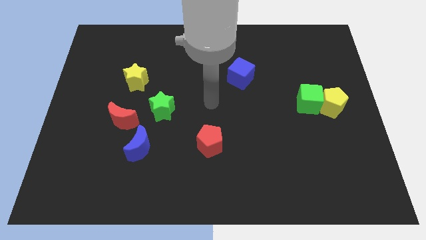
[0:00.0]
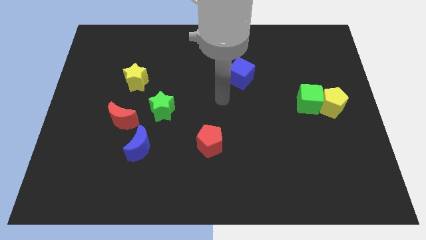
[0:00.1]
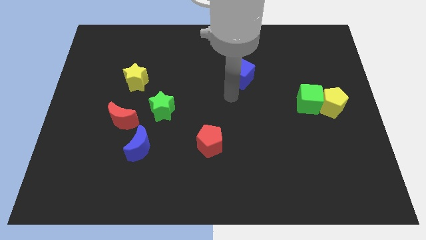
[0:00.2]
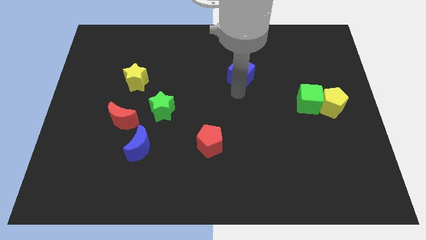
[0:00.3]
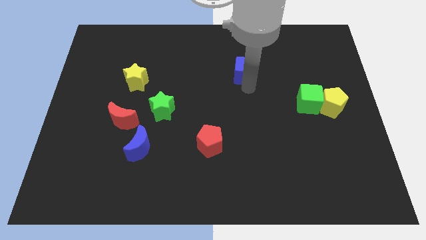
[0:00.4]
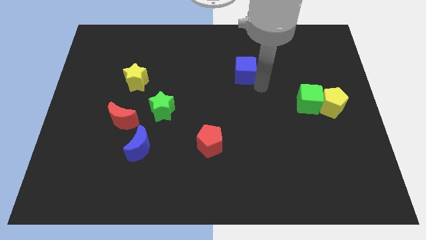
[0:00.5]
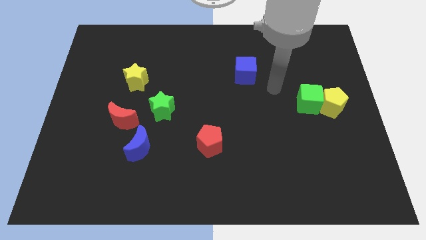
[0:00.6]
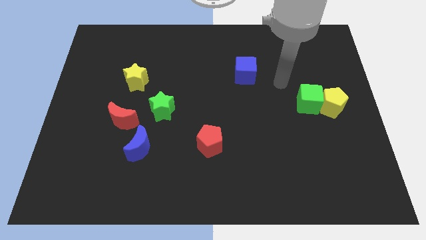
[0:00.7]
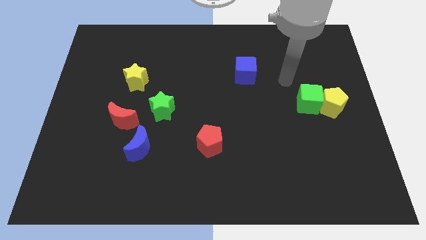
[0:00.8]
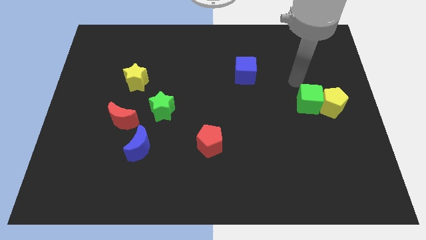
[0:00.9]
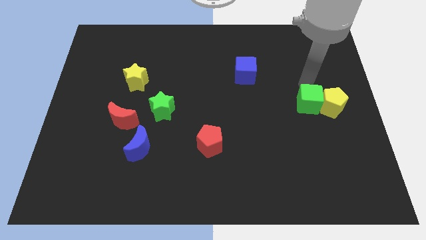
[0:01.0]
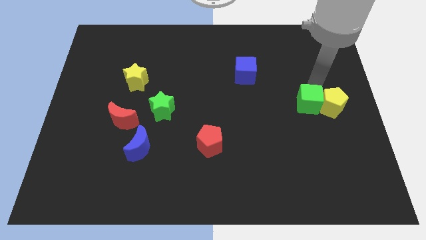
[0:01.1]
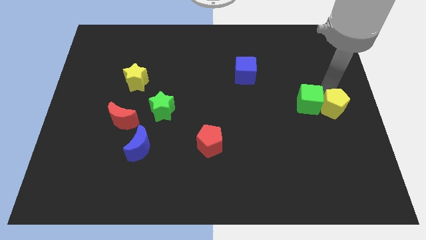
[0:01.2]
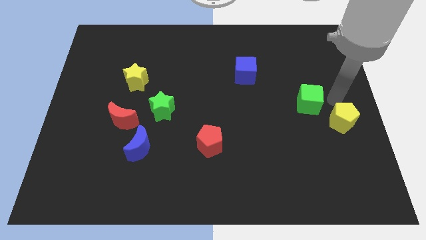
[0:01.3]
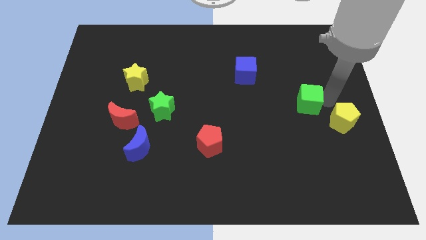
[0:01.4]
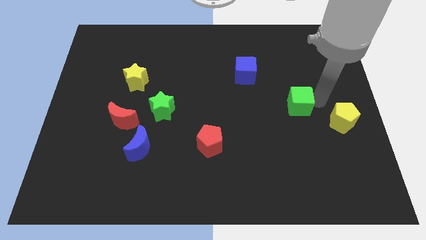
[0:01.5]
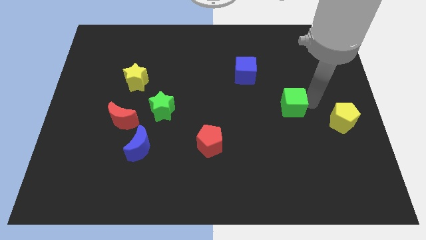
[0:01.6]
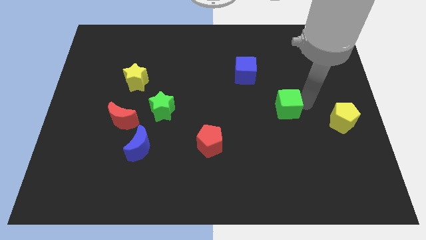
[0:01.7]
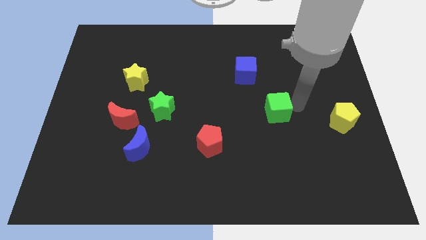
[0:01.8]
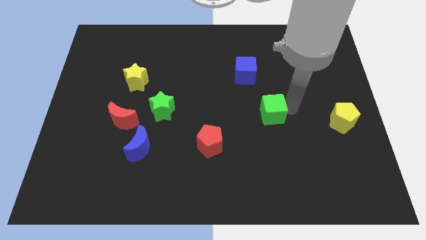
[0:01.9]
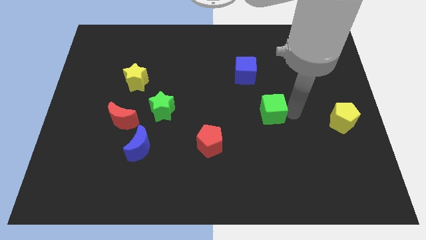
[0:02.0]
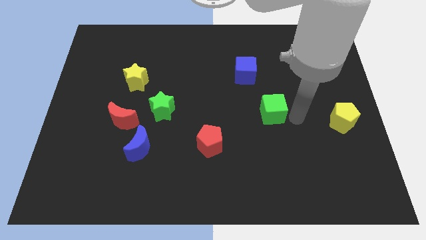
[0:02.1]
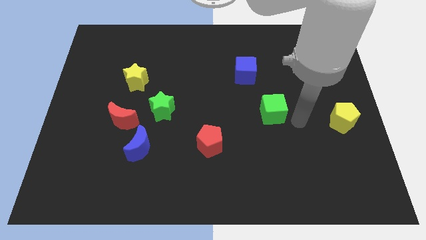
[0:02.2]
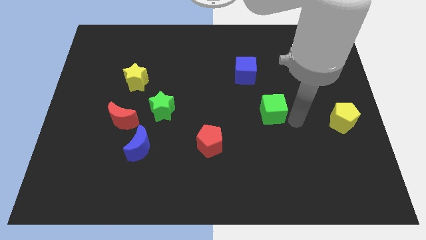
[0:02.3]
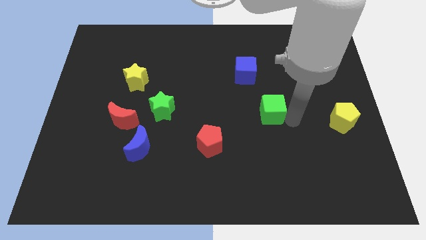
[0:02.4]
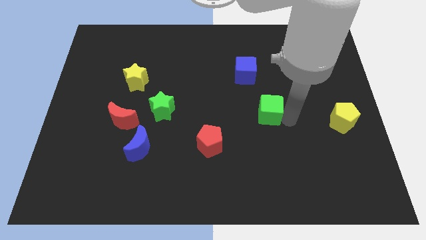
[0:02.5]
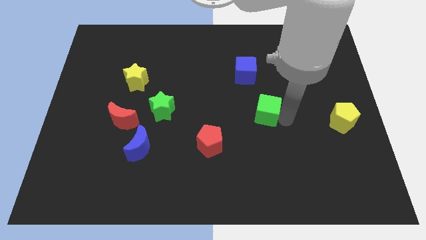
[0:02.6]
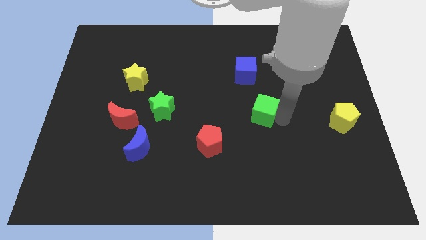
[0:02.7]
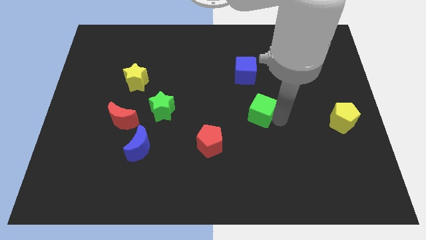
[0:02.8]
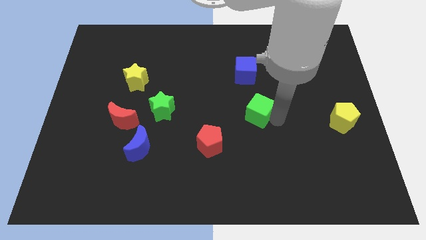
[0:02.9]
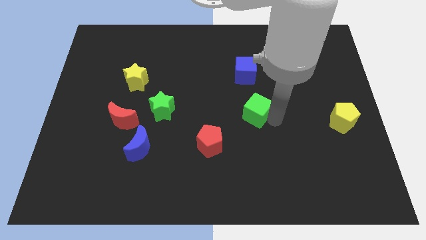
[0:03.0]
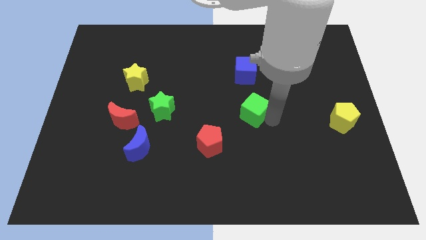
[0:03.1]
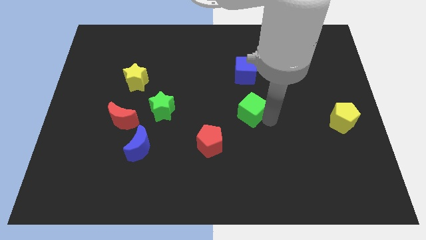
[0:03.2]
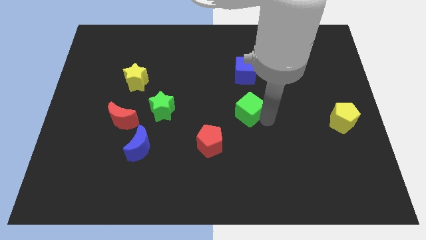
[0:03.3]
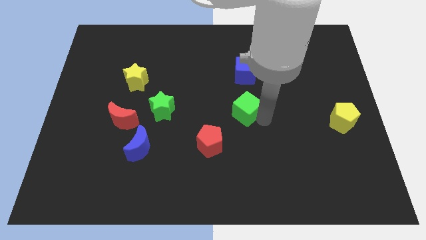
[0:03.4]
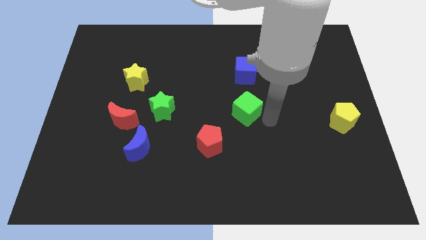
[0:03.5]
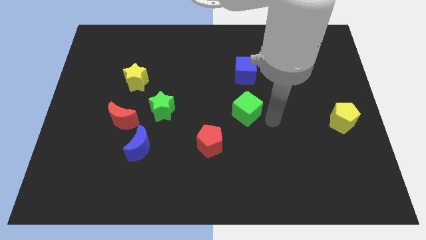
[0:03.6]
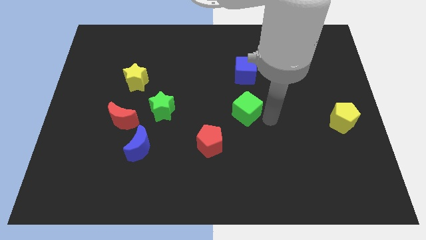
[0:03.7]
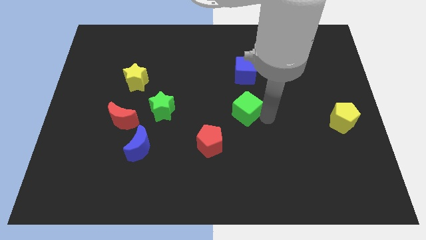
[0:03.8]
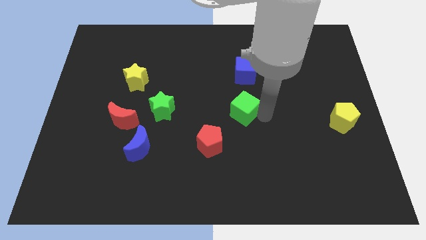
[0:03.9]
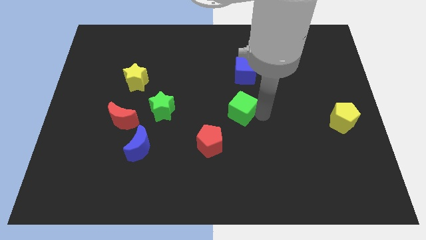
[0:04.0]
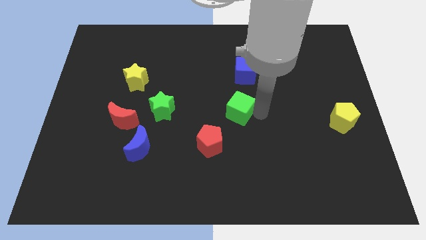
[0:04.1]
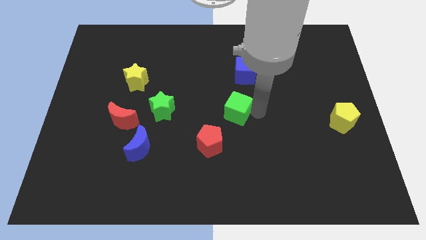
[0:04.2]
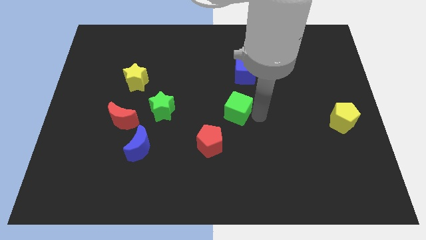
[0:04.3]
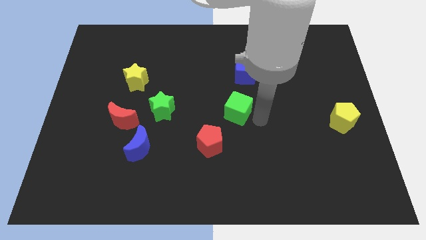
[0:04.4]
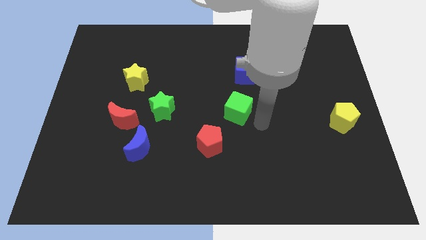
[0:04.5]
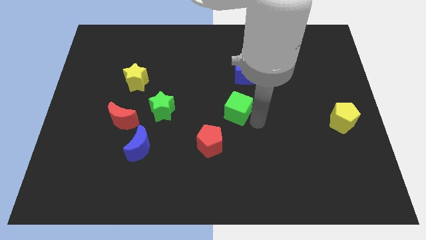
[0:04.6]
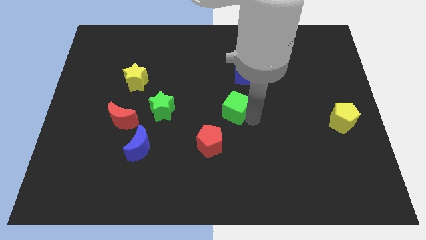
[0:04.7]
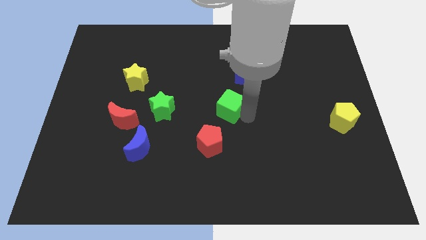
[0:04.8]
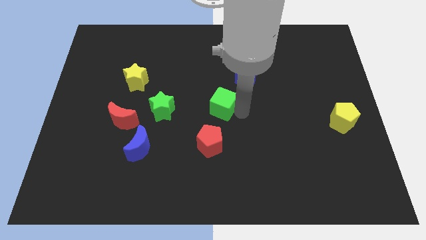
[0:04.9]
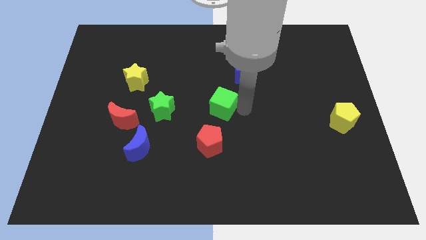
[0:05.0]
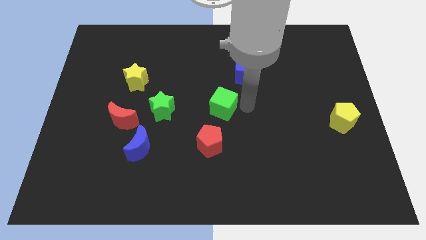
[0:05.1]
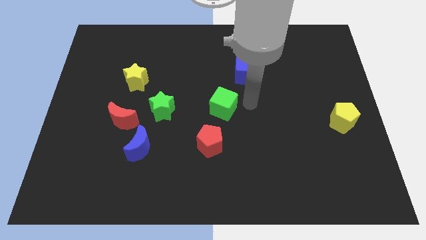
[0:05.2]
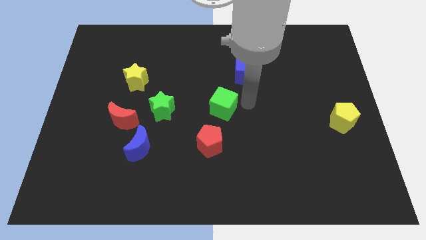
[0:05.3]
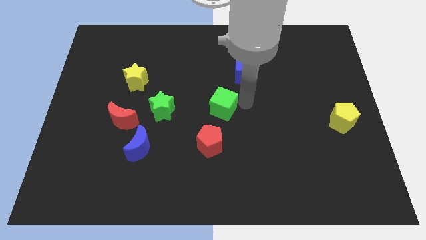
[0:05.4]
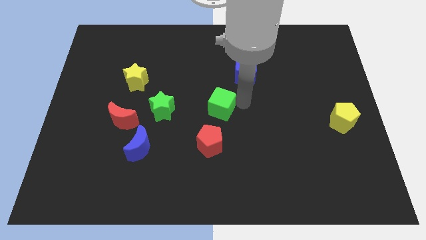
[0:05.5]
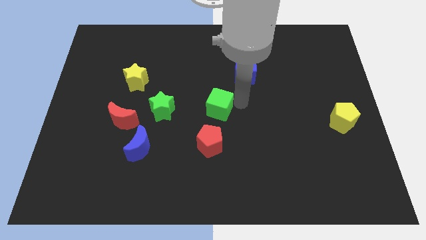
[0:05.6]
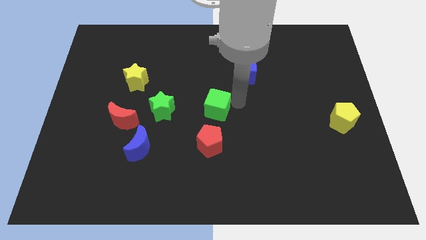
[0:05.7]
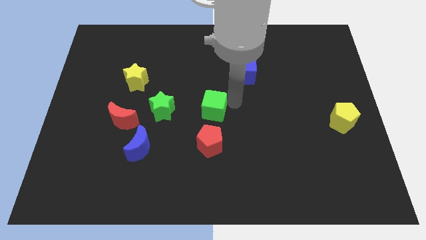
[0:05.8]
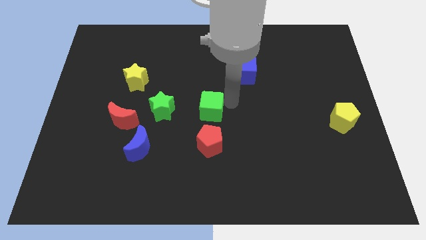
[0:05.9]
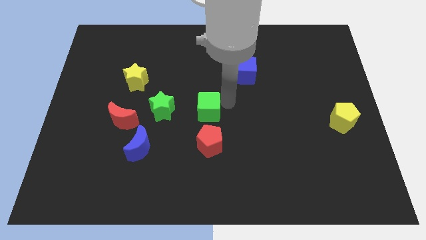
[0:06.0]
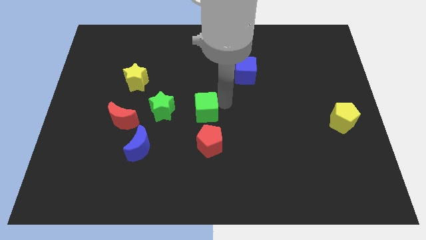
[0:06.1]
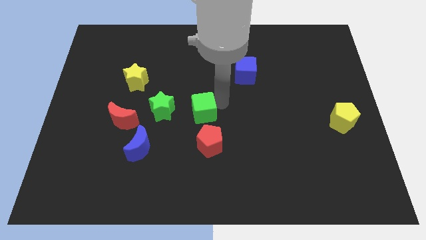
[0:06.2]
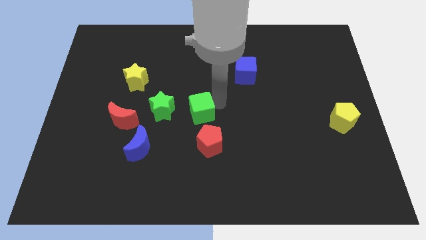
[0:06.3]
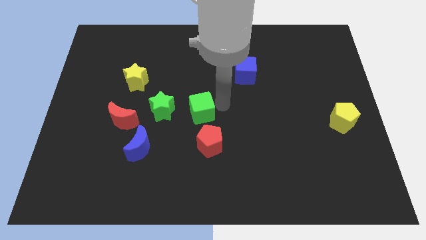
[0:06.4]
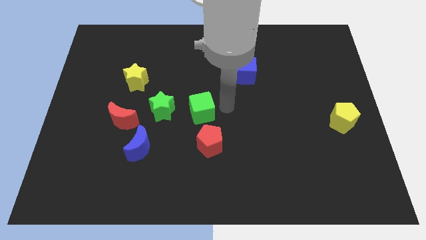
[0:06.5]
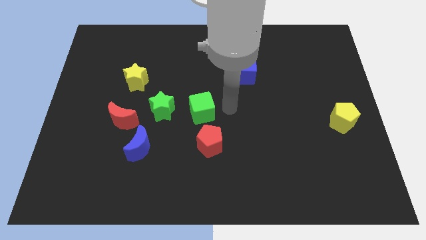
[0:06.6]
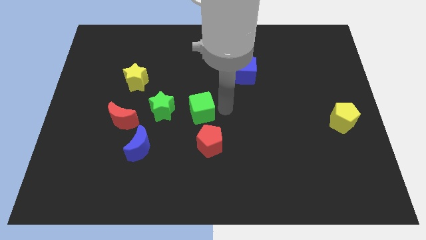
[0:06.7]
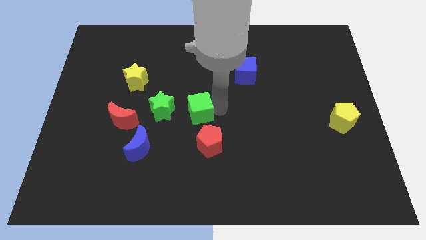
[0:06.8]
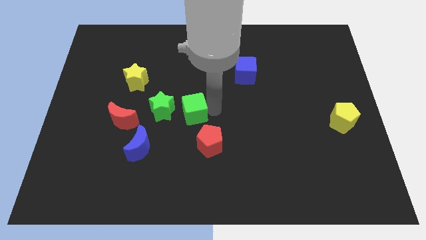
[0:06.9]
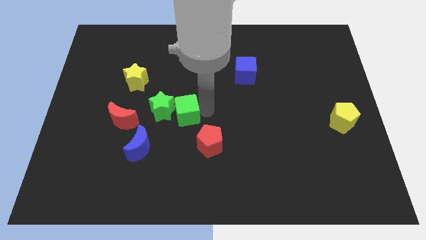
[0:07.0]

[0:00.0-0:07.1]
slide the green cube towards the green star

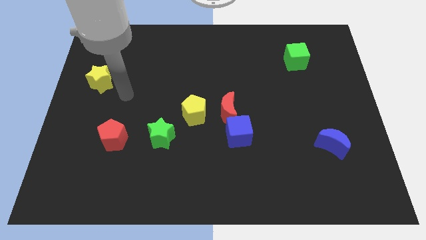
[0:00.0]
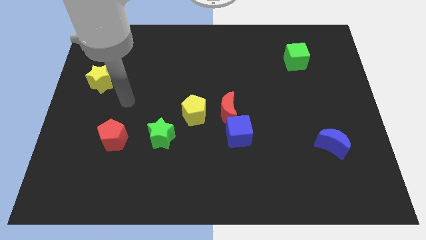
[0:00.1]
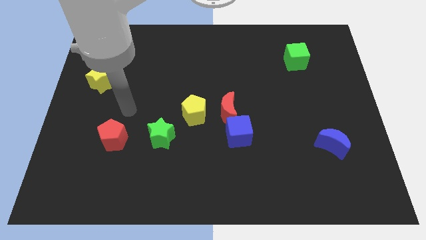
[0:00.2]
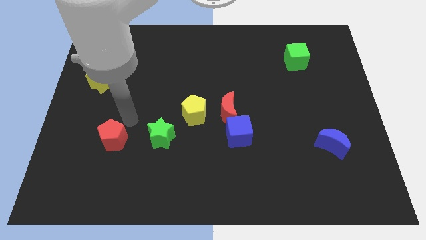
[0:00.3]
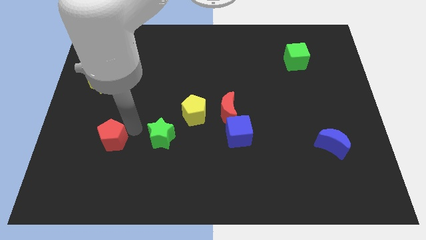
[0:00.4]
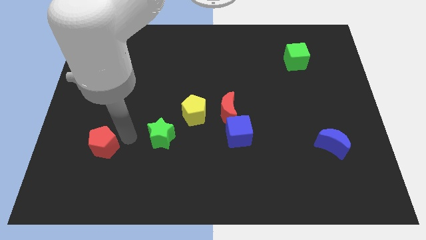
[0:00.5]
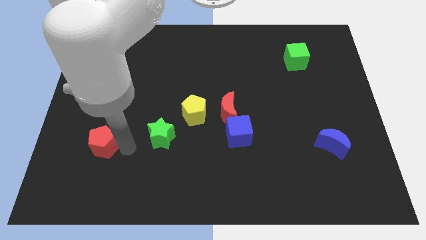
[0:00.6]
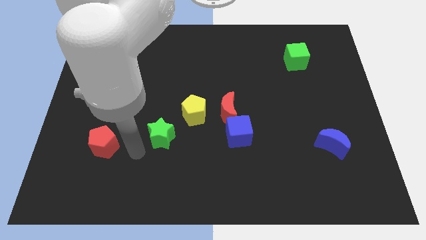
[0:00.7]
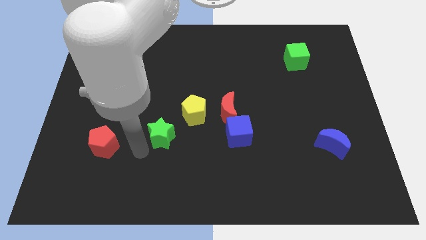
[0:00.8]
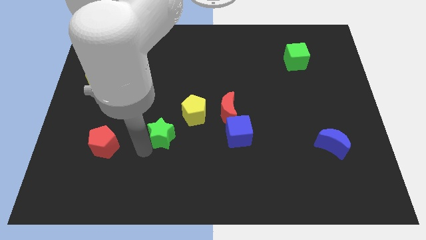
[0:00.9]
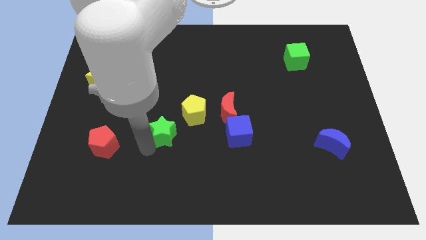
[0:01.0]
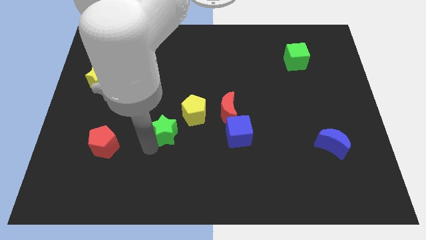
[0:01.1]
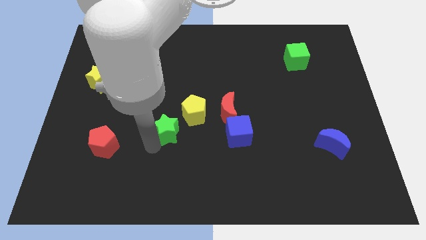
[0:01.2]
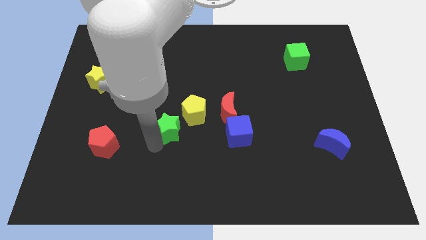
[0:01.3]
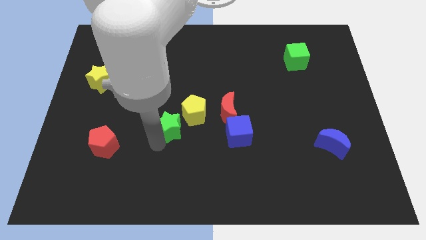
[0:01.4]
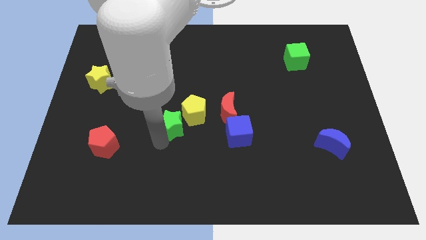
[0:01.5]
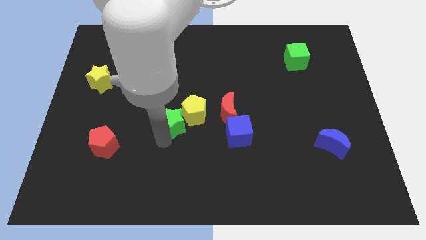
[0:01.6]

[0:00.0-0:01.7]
slide the green star towards the yellow pentagon
